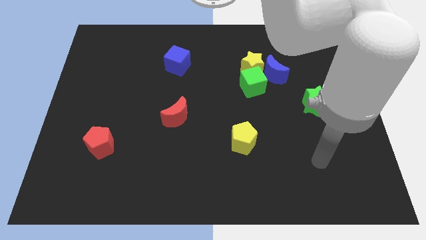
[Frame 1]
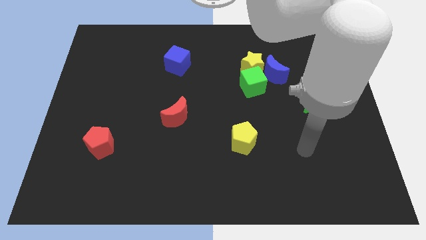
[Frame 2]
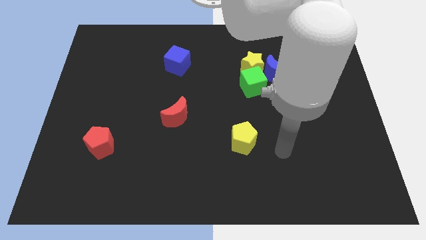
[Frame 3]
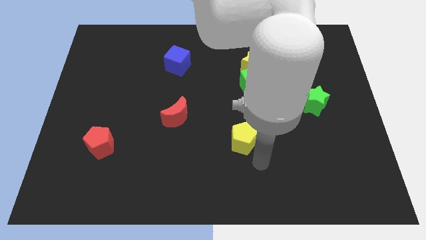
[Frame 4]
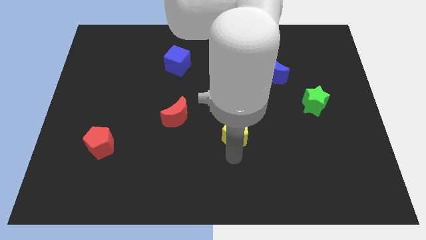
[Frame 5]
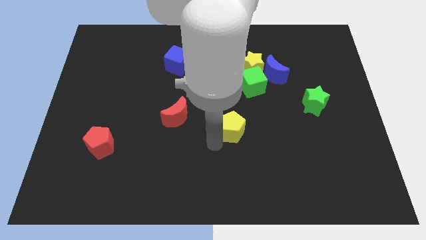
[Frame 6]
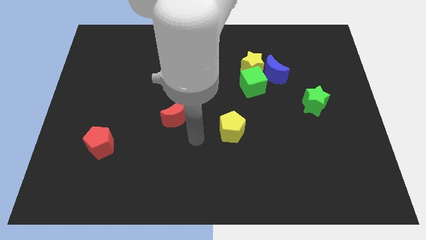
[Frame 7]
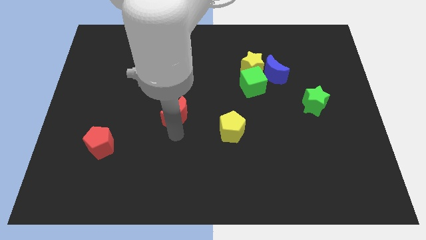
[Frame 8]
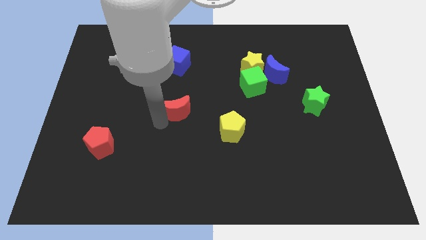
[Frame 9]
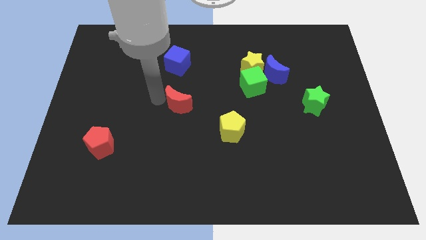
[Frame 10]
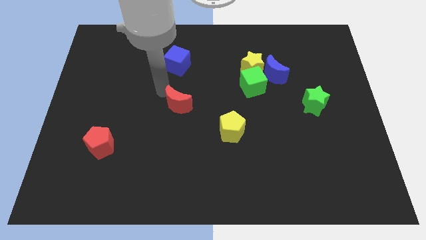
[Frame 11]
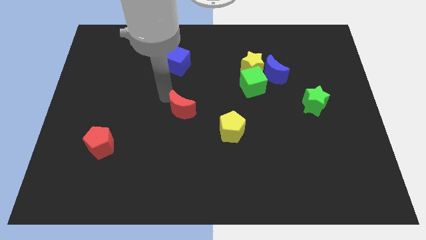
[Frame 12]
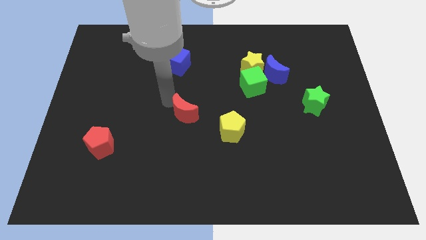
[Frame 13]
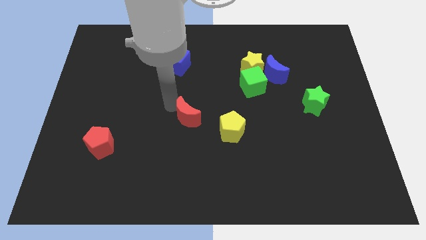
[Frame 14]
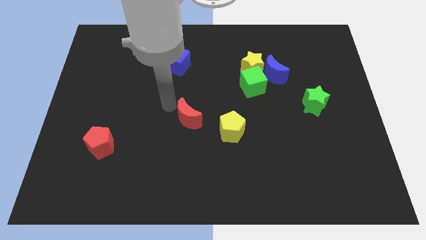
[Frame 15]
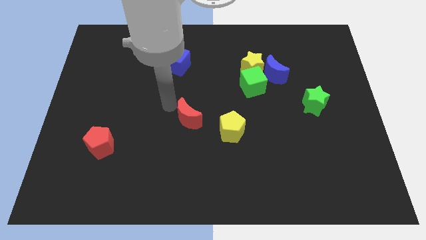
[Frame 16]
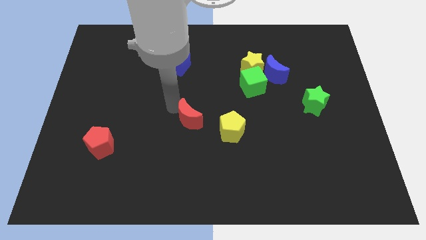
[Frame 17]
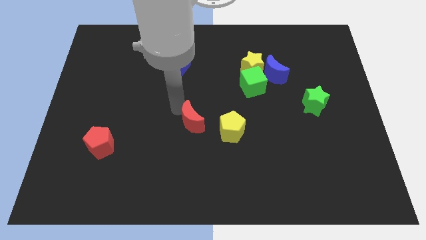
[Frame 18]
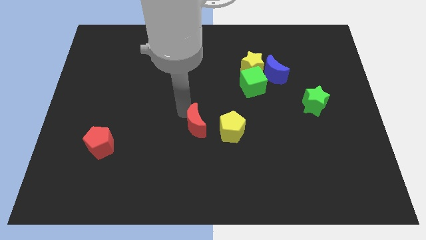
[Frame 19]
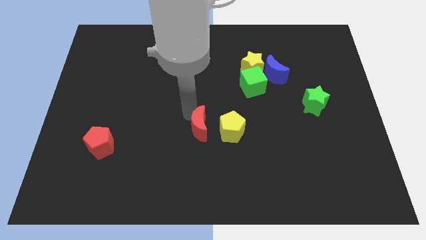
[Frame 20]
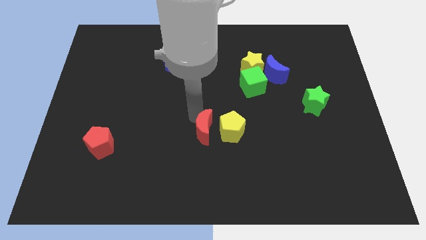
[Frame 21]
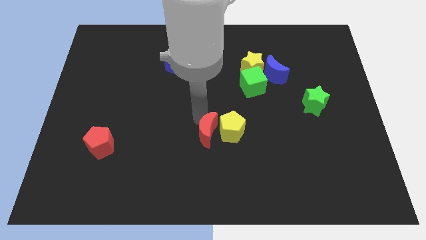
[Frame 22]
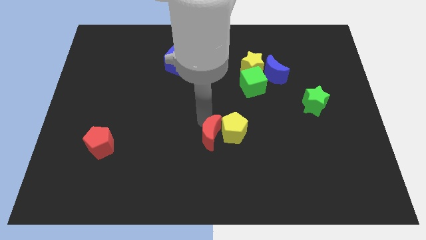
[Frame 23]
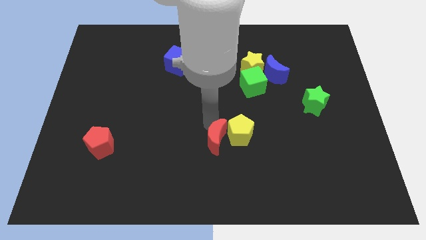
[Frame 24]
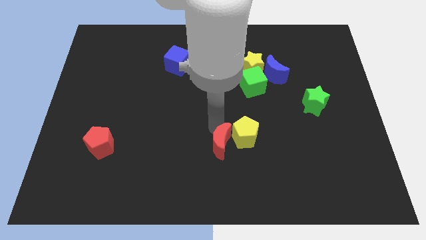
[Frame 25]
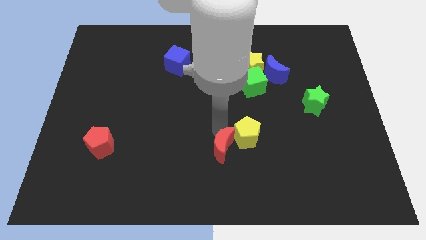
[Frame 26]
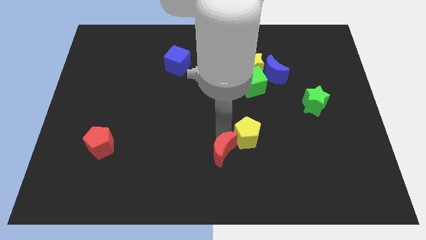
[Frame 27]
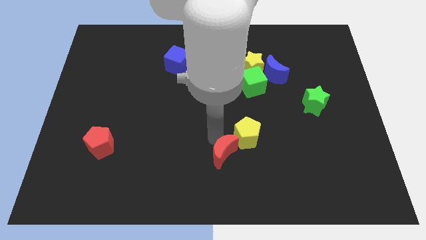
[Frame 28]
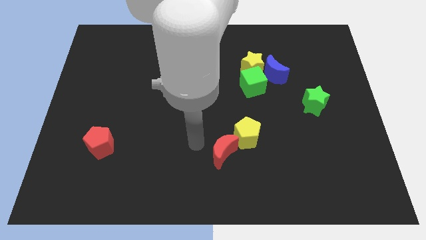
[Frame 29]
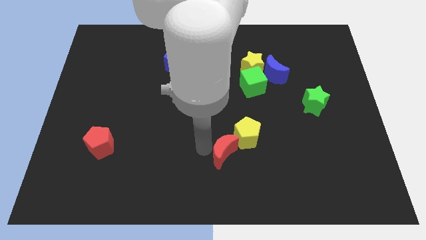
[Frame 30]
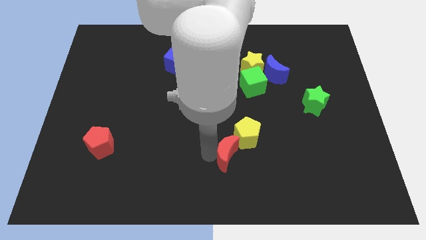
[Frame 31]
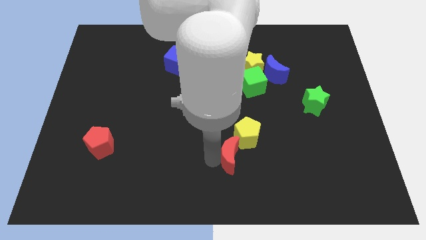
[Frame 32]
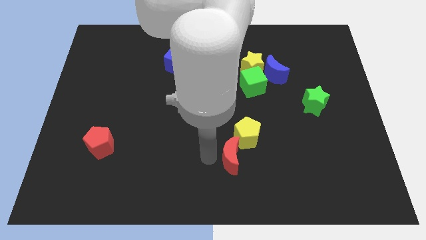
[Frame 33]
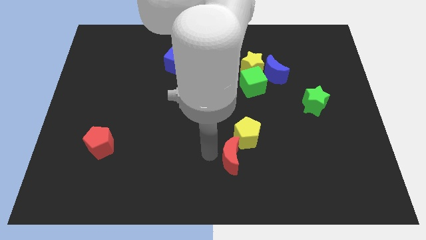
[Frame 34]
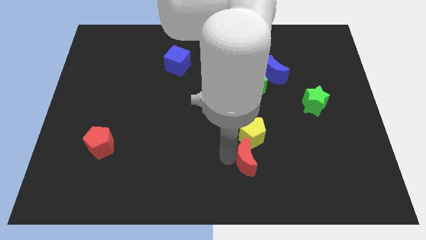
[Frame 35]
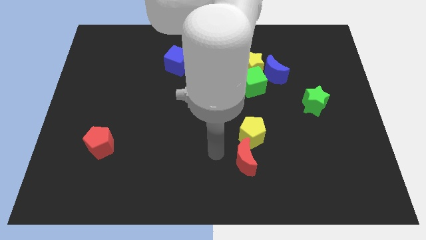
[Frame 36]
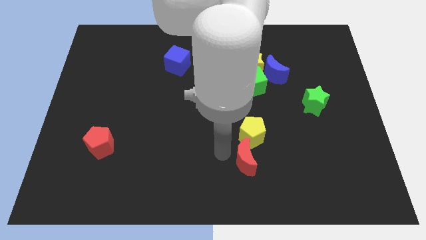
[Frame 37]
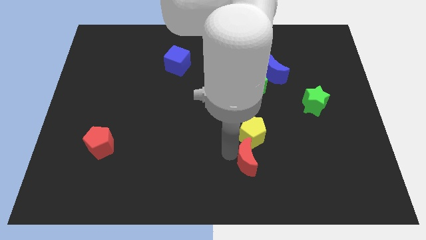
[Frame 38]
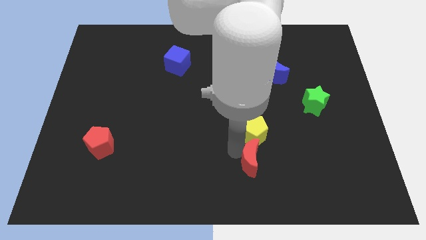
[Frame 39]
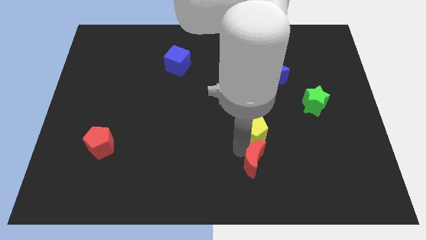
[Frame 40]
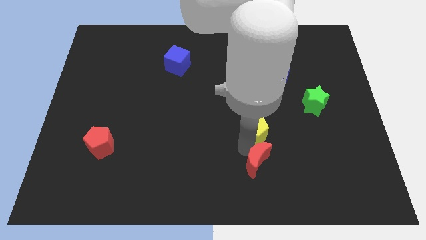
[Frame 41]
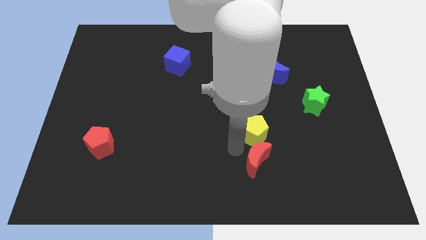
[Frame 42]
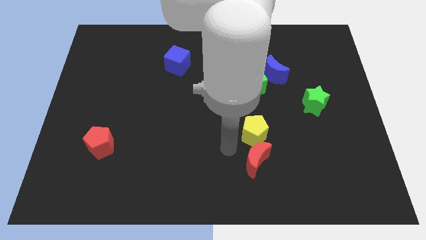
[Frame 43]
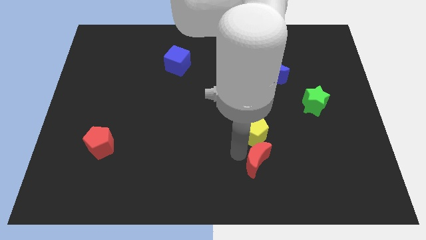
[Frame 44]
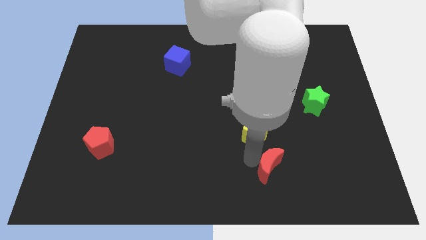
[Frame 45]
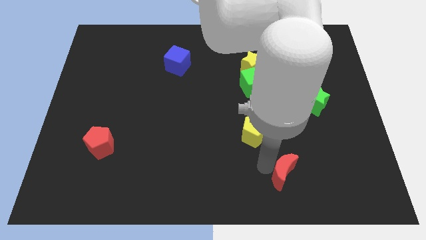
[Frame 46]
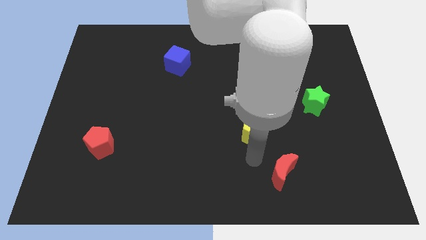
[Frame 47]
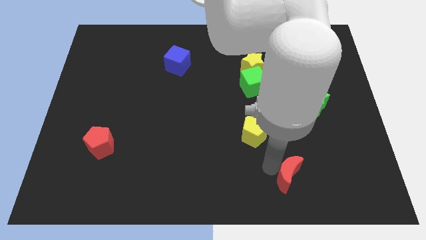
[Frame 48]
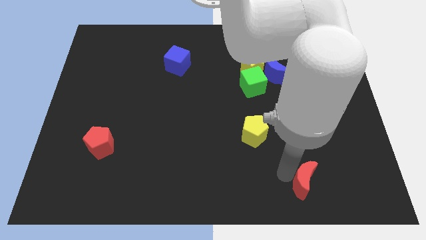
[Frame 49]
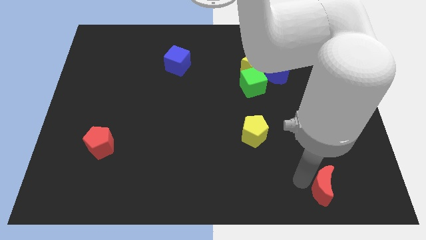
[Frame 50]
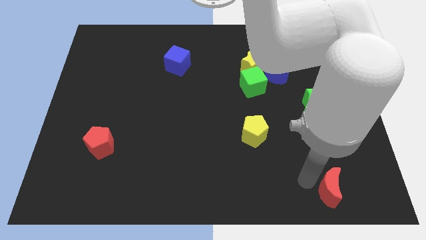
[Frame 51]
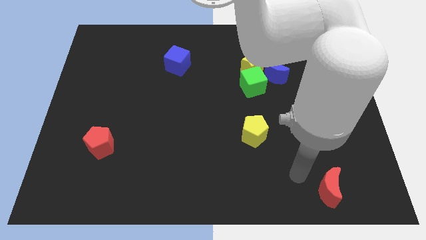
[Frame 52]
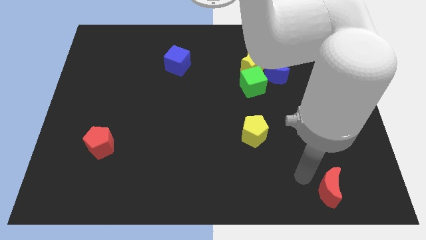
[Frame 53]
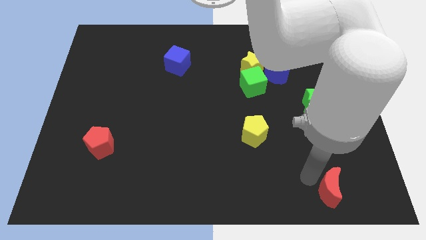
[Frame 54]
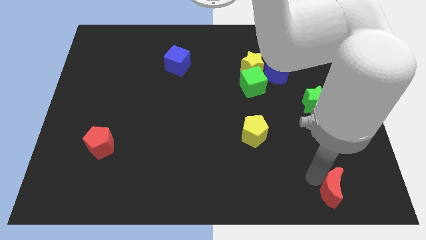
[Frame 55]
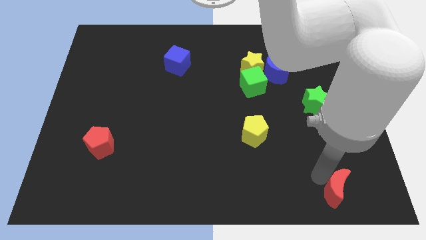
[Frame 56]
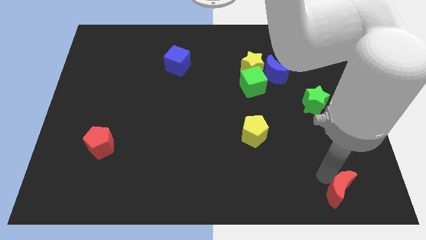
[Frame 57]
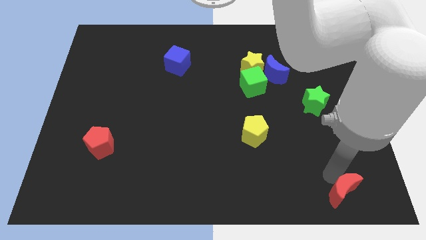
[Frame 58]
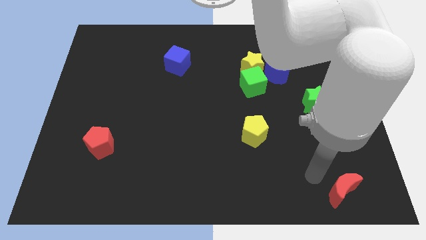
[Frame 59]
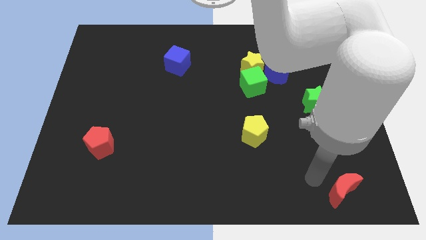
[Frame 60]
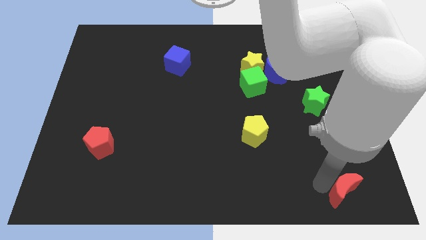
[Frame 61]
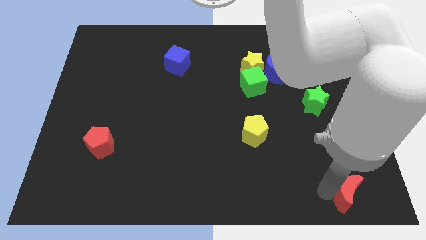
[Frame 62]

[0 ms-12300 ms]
put the red moon to the bottom right corner

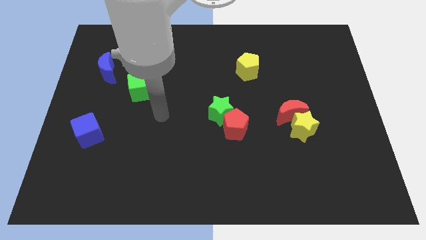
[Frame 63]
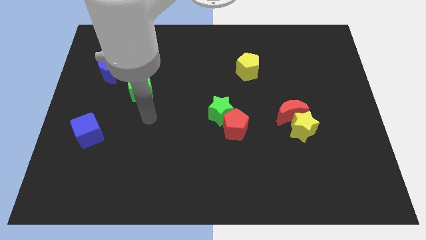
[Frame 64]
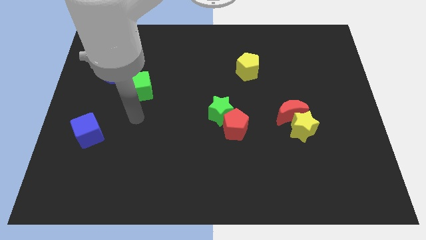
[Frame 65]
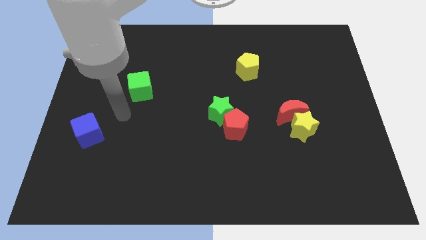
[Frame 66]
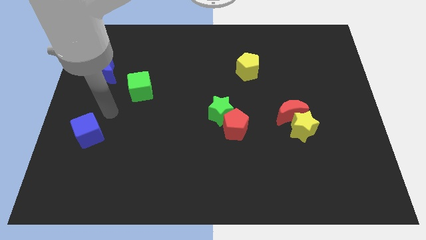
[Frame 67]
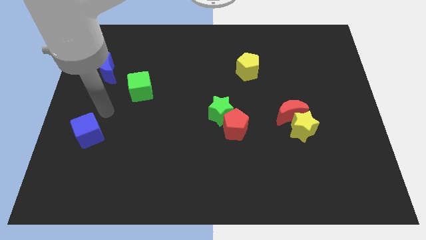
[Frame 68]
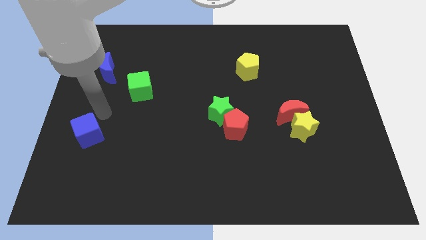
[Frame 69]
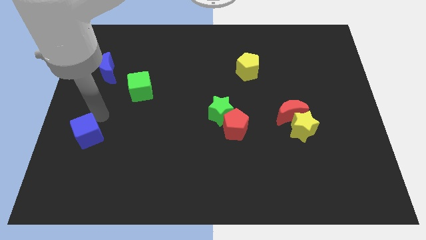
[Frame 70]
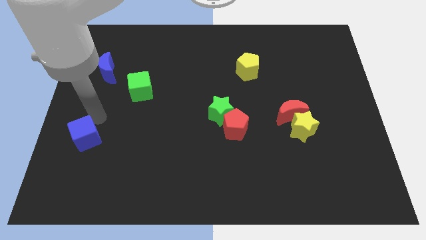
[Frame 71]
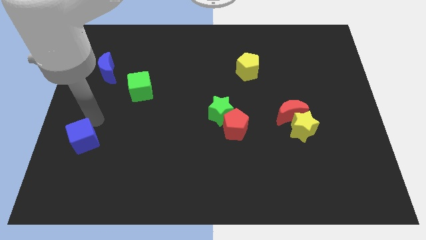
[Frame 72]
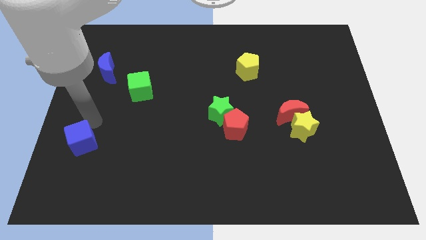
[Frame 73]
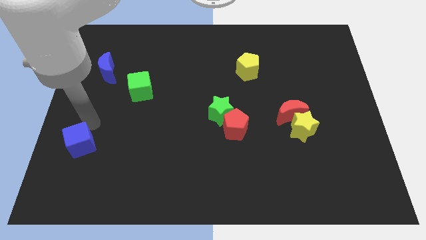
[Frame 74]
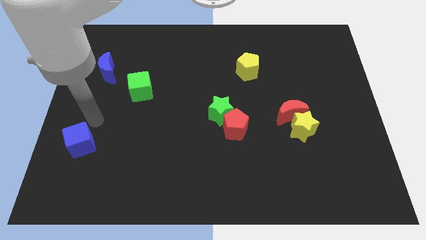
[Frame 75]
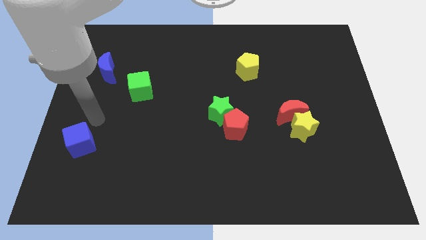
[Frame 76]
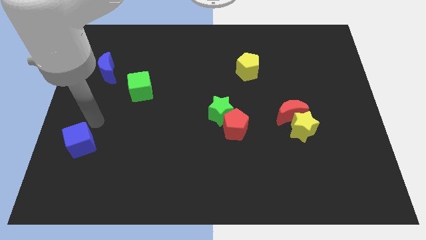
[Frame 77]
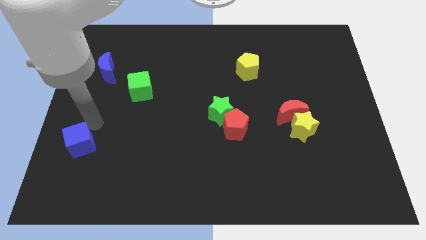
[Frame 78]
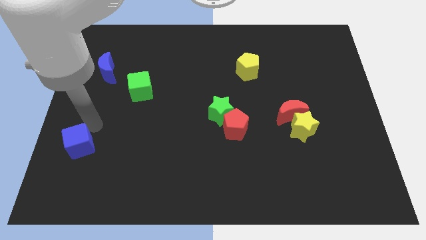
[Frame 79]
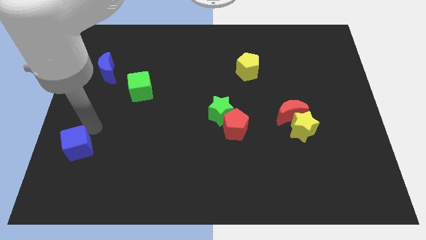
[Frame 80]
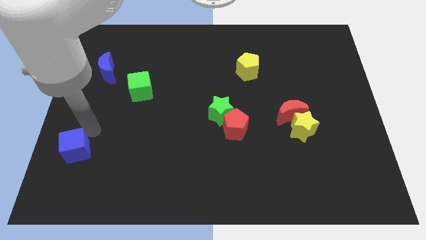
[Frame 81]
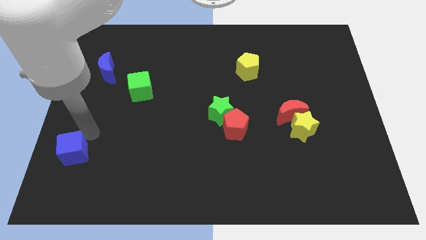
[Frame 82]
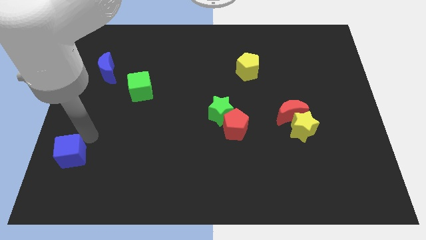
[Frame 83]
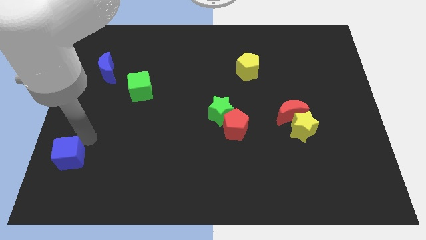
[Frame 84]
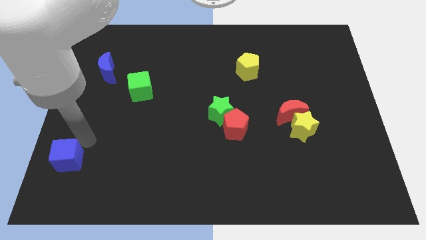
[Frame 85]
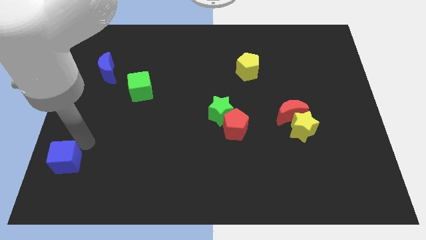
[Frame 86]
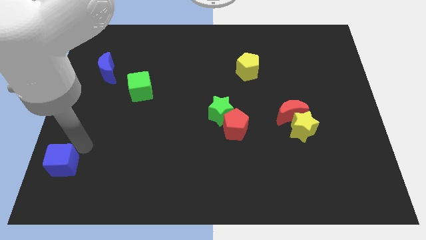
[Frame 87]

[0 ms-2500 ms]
push the blue cube to the lower left corner
